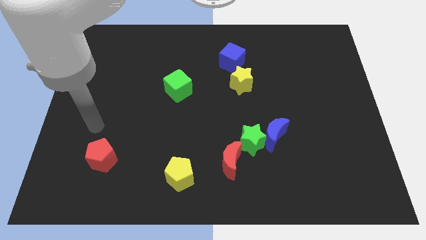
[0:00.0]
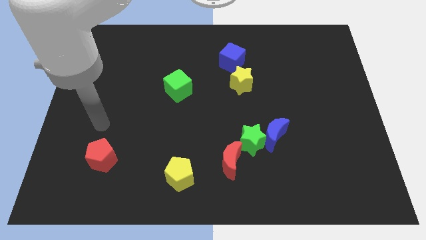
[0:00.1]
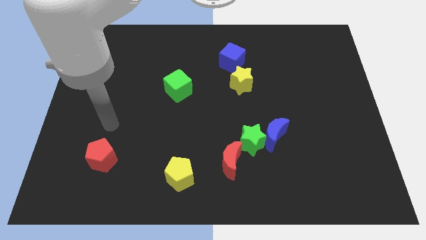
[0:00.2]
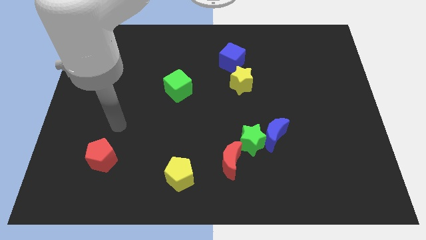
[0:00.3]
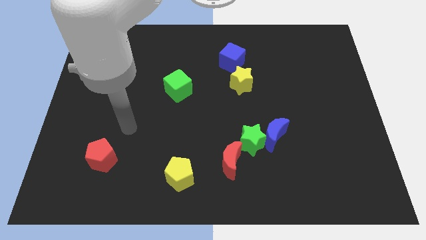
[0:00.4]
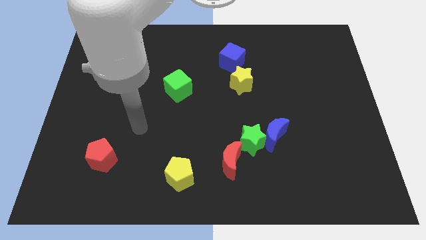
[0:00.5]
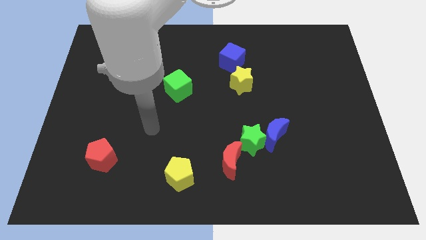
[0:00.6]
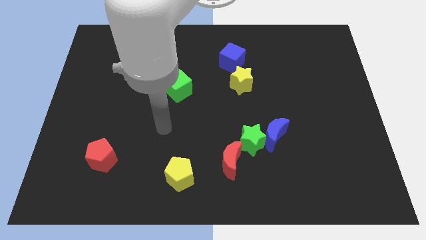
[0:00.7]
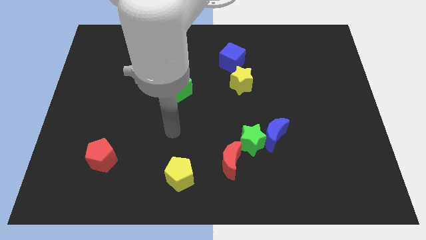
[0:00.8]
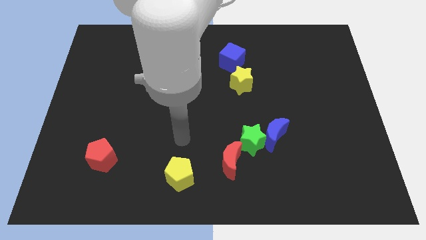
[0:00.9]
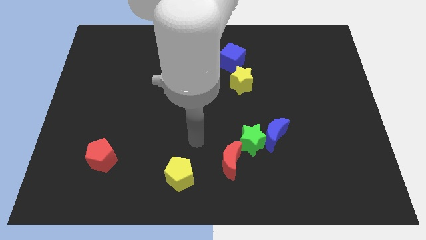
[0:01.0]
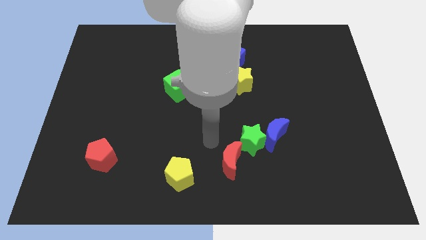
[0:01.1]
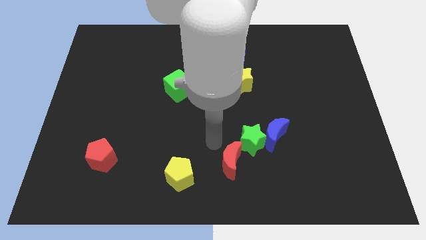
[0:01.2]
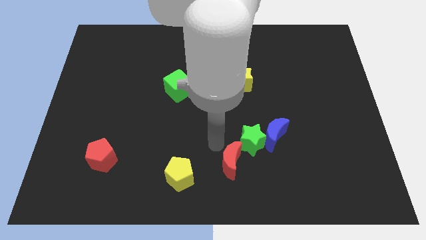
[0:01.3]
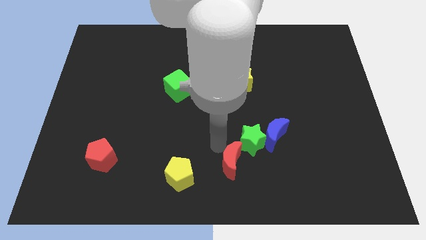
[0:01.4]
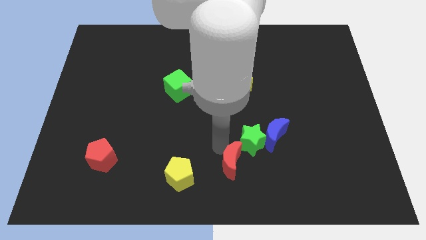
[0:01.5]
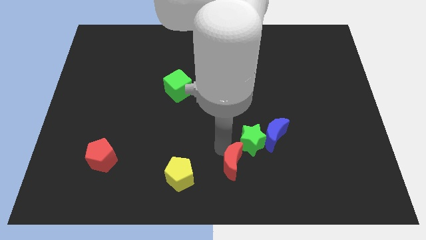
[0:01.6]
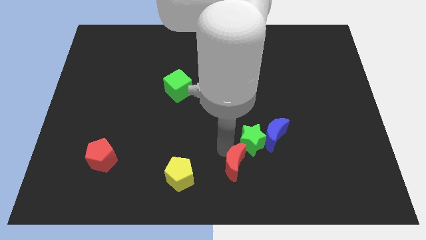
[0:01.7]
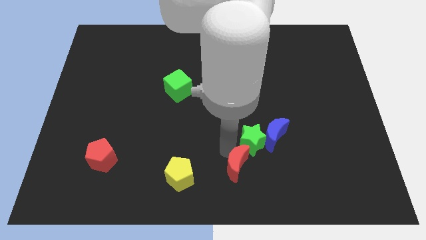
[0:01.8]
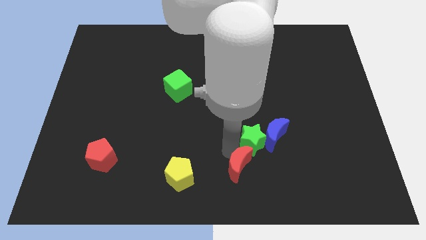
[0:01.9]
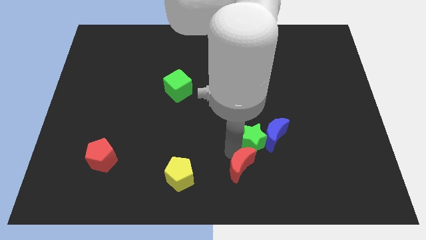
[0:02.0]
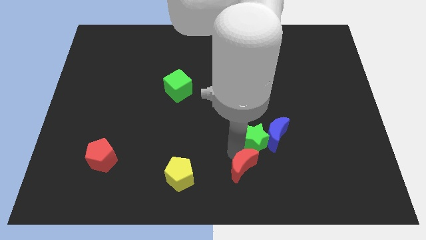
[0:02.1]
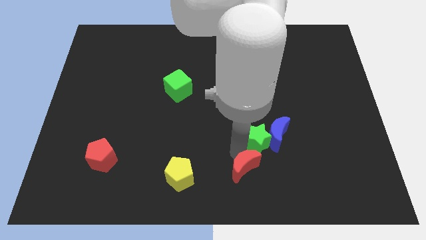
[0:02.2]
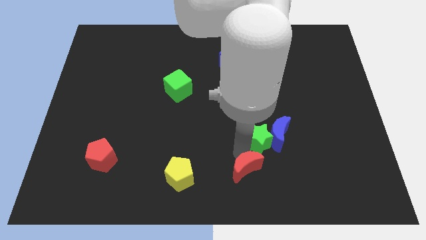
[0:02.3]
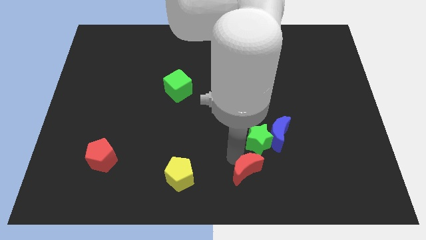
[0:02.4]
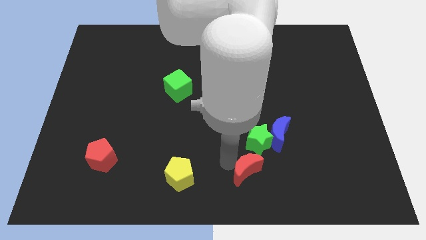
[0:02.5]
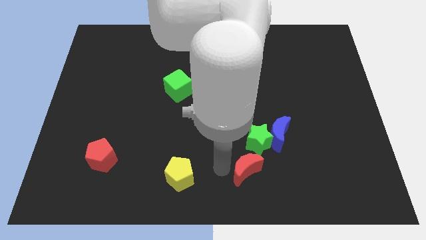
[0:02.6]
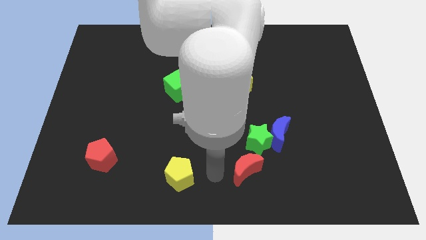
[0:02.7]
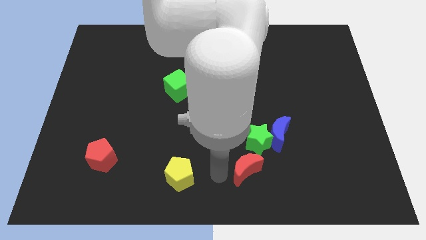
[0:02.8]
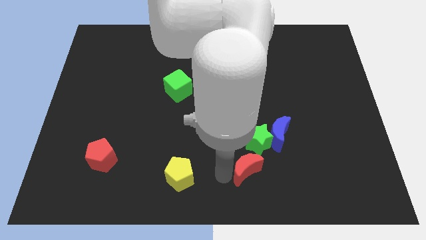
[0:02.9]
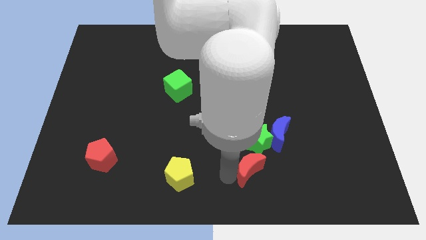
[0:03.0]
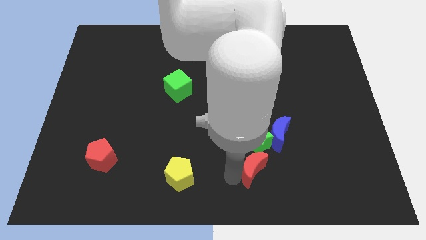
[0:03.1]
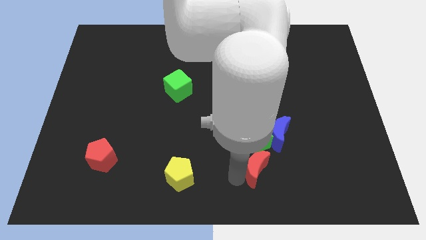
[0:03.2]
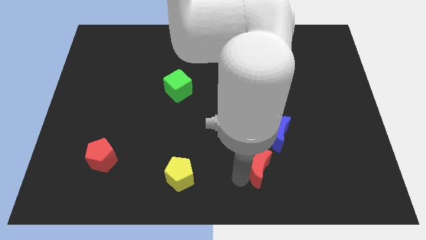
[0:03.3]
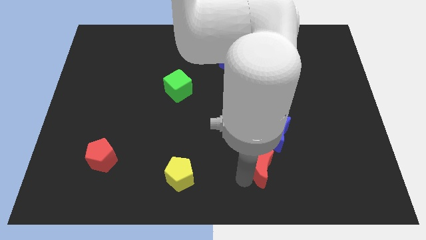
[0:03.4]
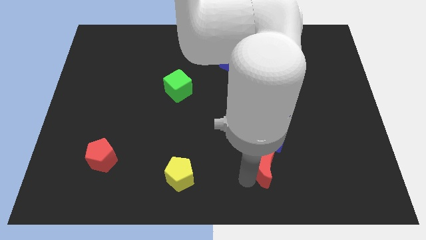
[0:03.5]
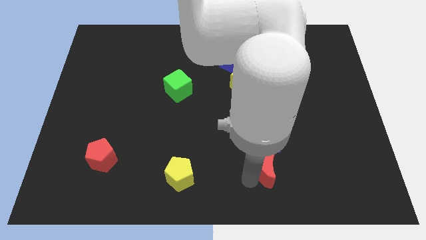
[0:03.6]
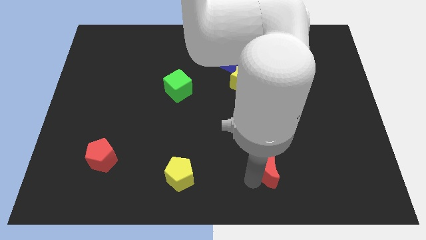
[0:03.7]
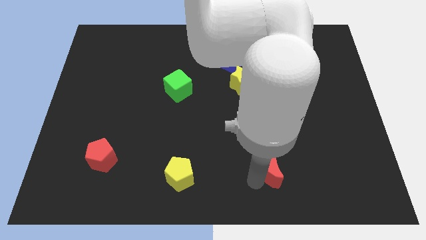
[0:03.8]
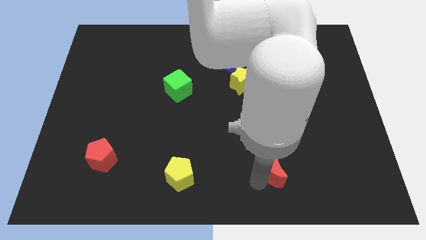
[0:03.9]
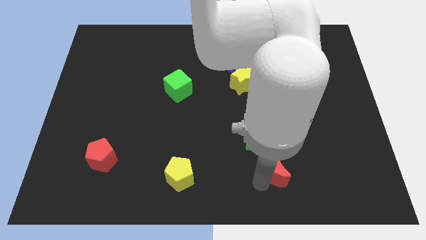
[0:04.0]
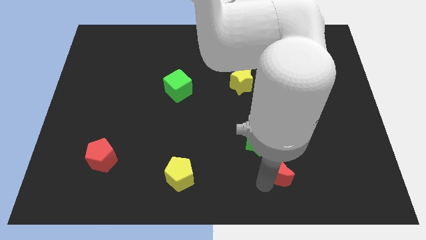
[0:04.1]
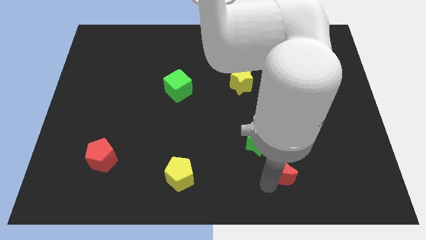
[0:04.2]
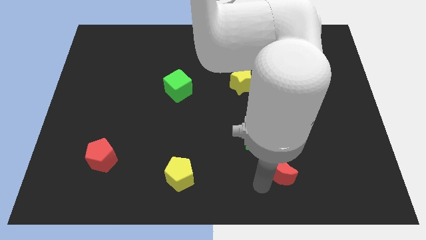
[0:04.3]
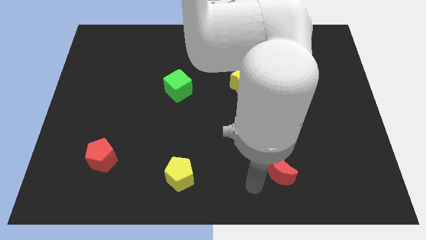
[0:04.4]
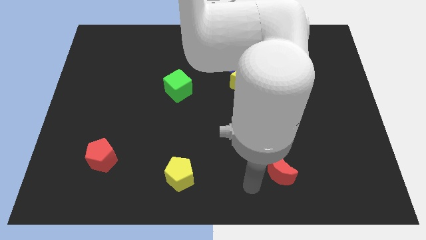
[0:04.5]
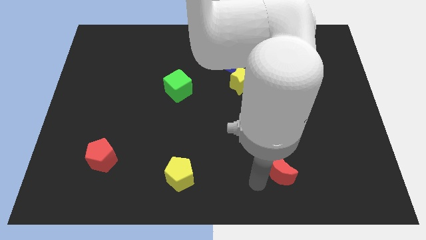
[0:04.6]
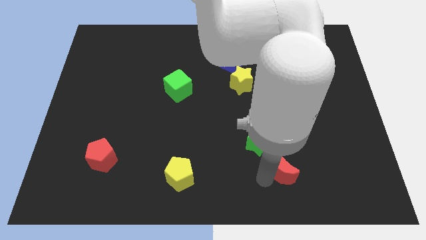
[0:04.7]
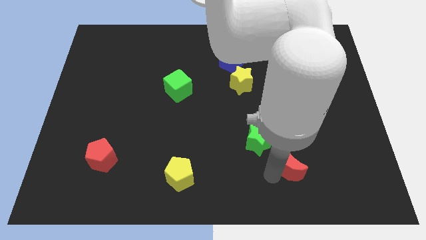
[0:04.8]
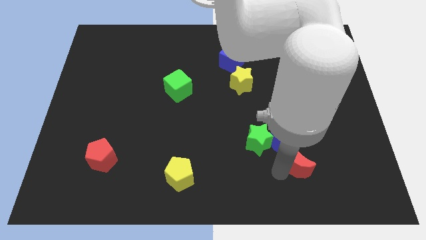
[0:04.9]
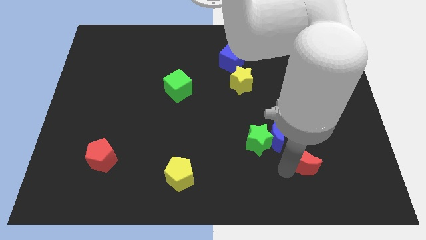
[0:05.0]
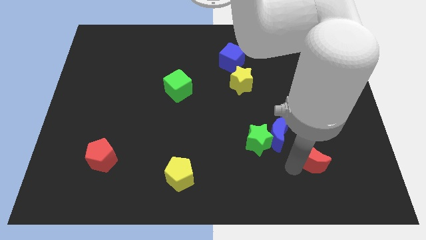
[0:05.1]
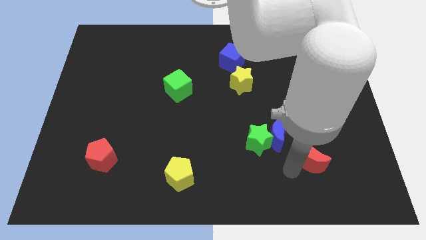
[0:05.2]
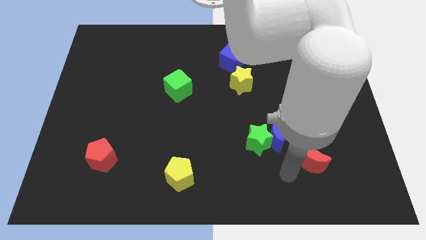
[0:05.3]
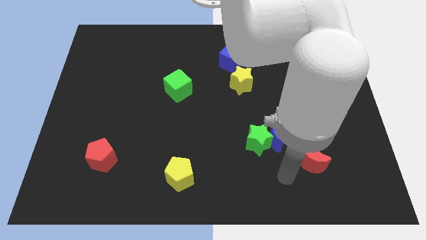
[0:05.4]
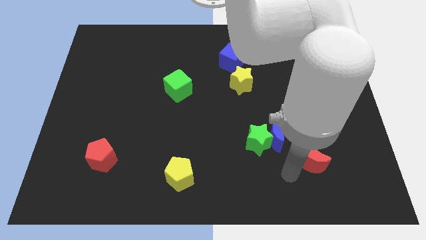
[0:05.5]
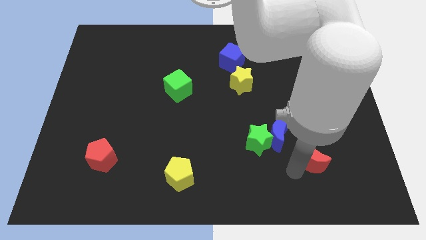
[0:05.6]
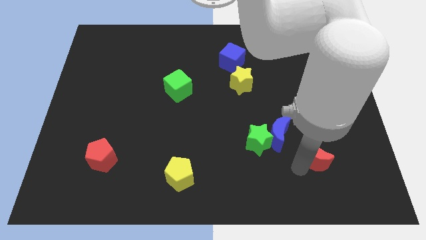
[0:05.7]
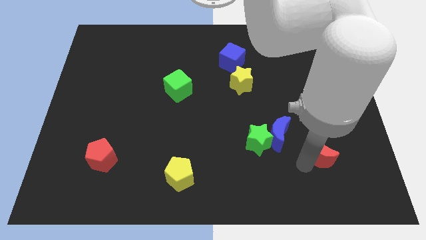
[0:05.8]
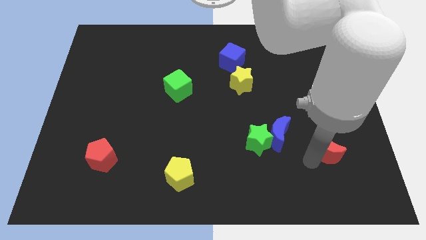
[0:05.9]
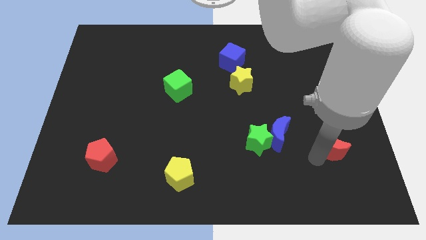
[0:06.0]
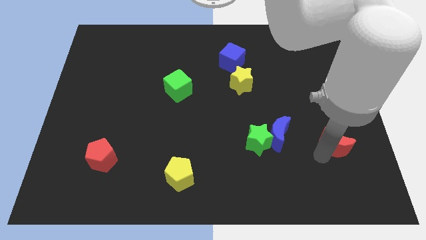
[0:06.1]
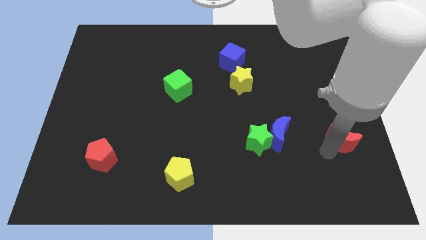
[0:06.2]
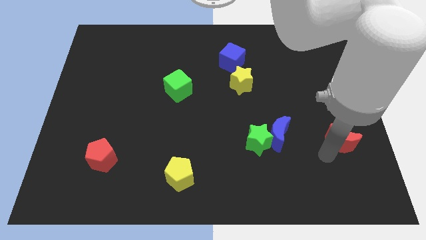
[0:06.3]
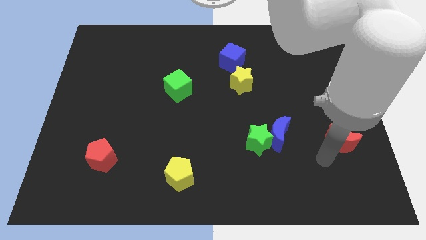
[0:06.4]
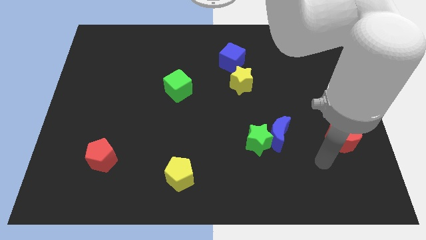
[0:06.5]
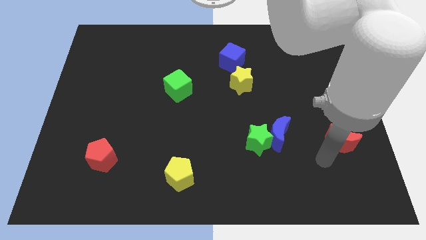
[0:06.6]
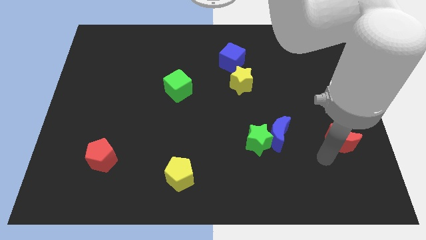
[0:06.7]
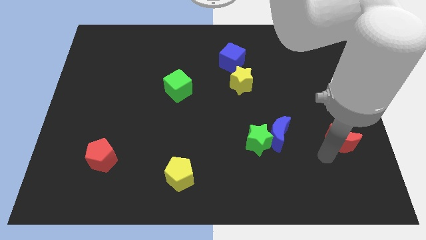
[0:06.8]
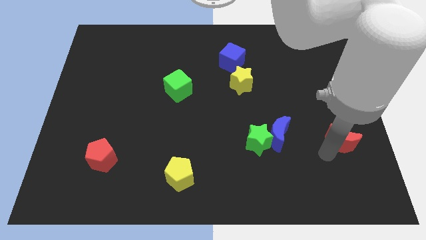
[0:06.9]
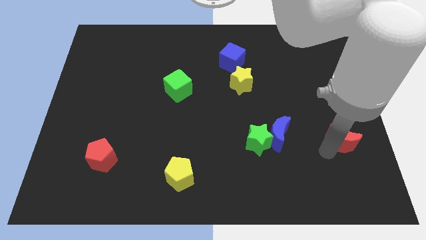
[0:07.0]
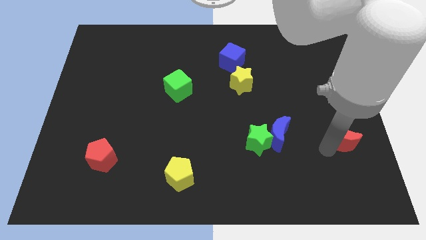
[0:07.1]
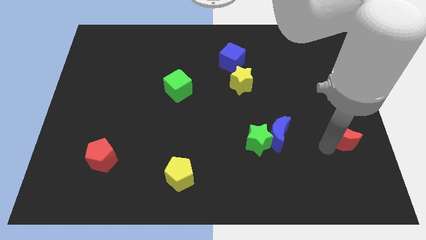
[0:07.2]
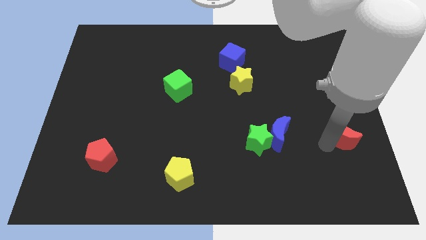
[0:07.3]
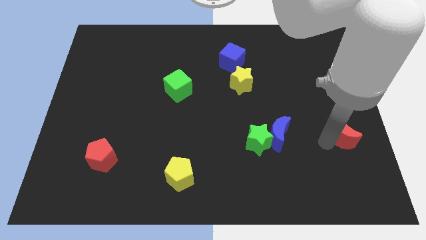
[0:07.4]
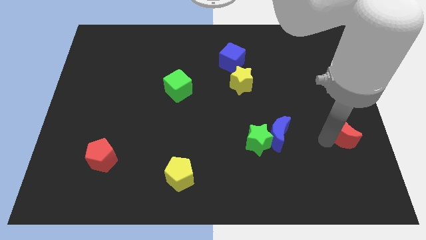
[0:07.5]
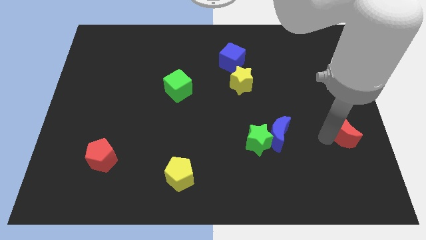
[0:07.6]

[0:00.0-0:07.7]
put the red moon to the right side
